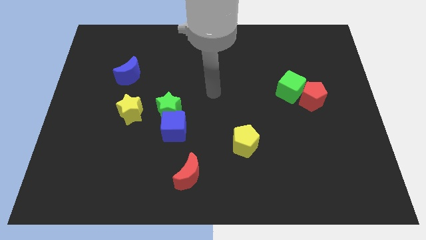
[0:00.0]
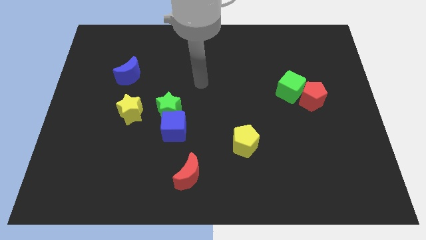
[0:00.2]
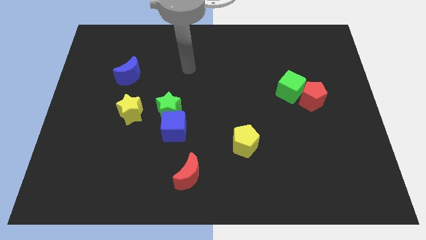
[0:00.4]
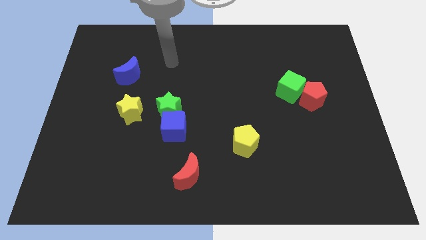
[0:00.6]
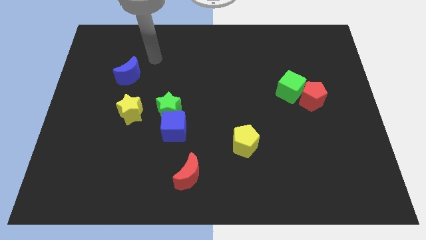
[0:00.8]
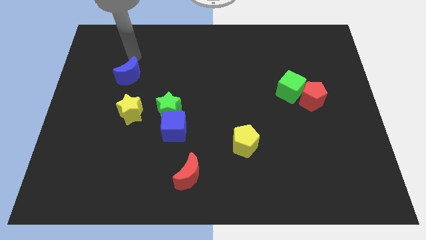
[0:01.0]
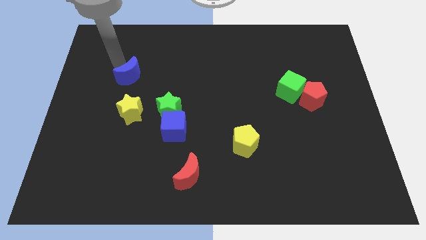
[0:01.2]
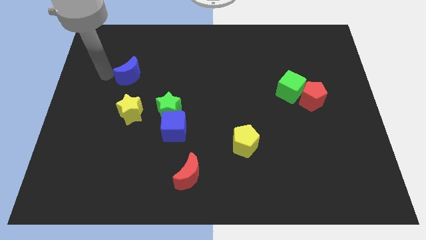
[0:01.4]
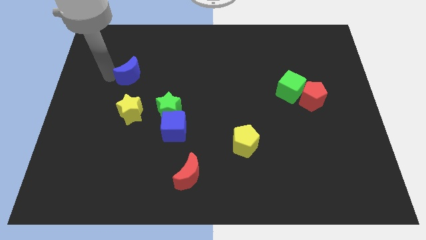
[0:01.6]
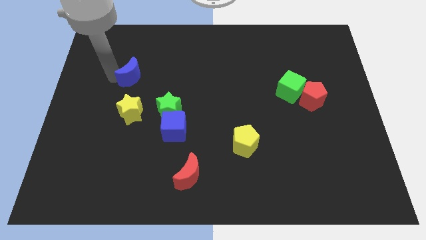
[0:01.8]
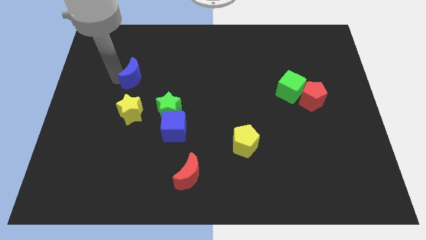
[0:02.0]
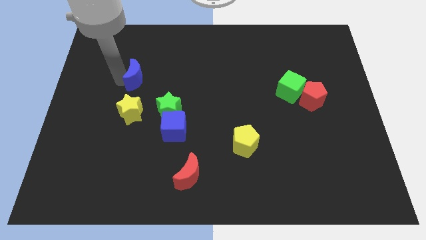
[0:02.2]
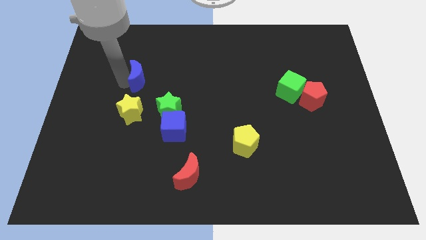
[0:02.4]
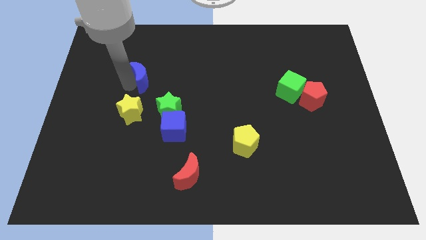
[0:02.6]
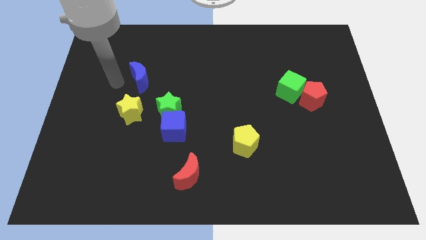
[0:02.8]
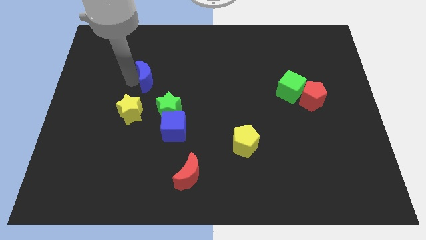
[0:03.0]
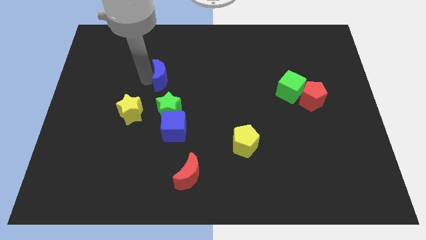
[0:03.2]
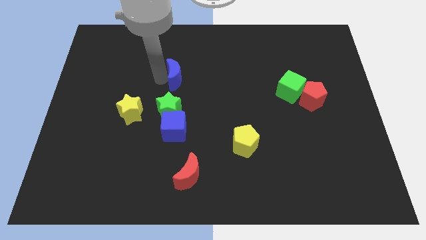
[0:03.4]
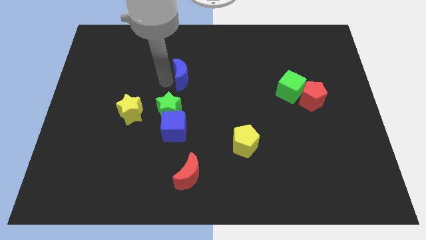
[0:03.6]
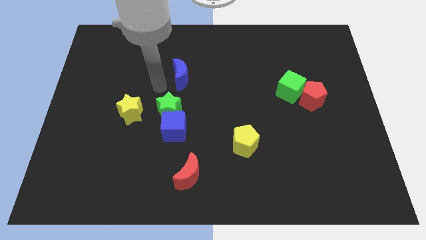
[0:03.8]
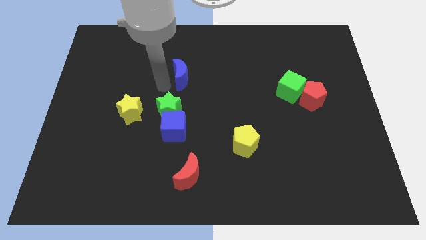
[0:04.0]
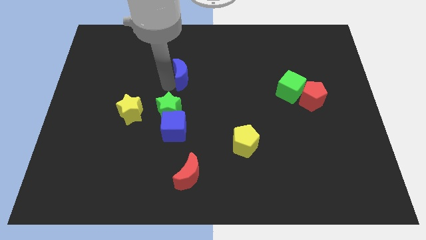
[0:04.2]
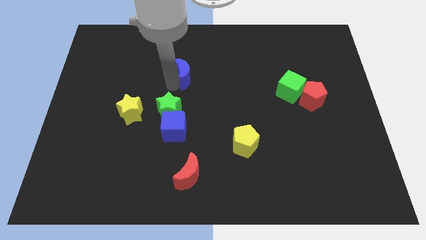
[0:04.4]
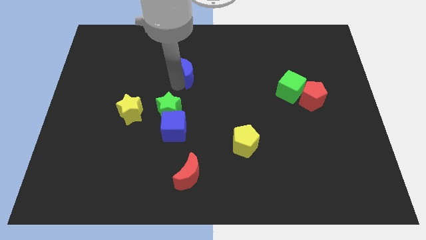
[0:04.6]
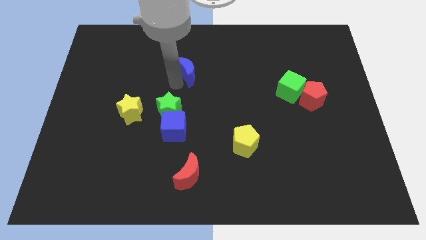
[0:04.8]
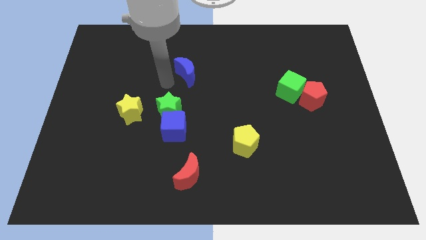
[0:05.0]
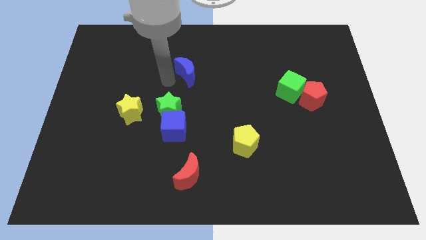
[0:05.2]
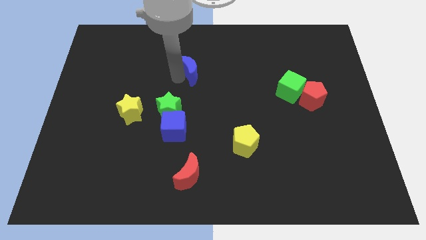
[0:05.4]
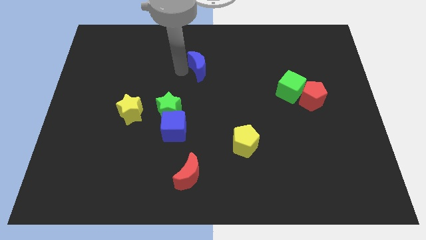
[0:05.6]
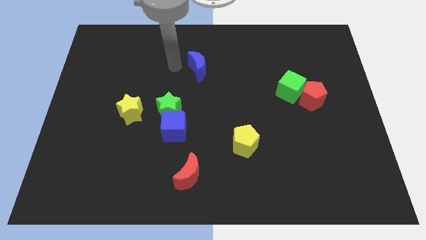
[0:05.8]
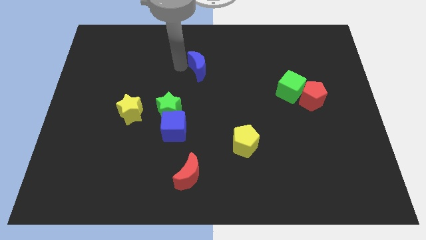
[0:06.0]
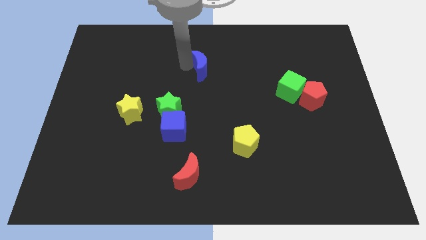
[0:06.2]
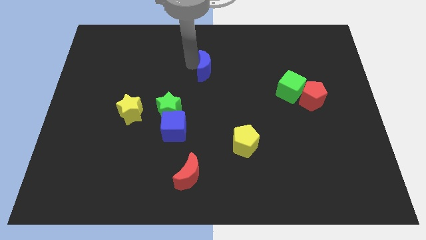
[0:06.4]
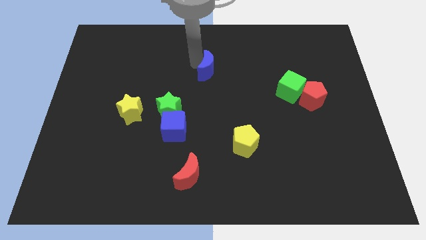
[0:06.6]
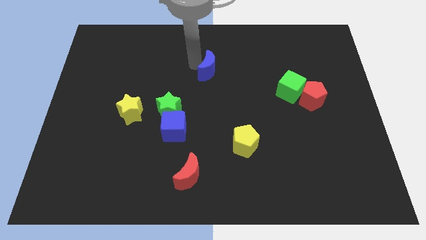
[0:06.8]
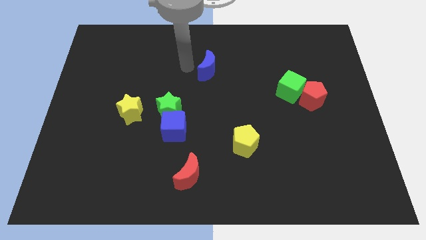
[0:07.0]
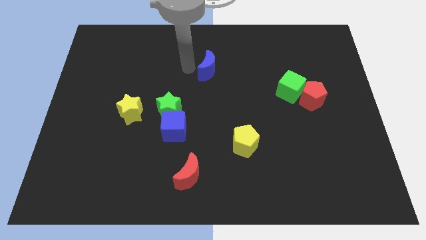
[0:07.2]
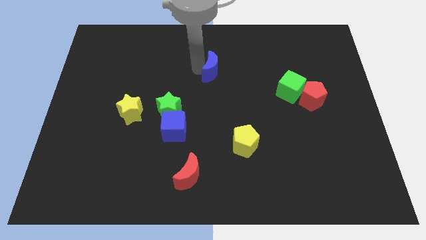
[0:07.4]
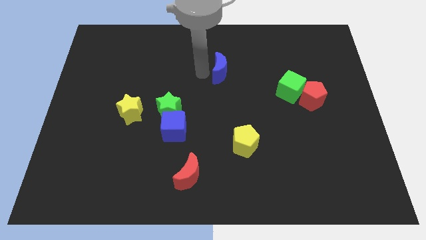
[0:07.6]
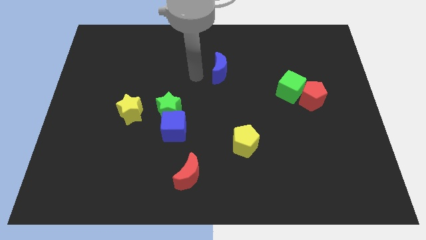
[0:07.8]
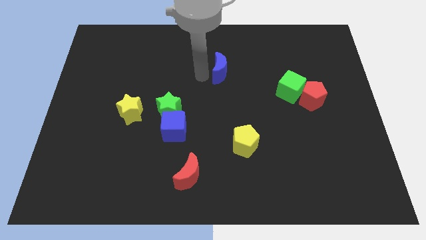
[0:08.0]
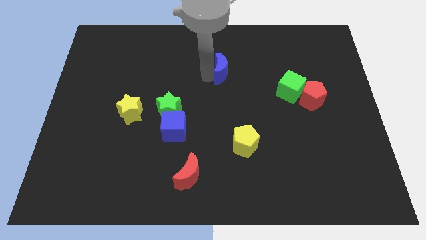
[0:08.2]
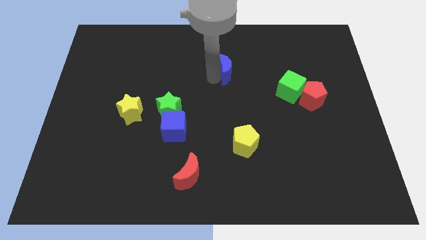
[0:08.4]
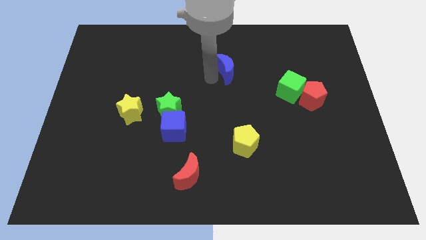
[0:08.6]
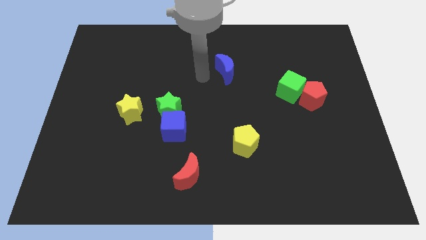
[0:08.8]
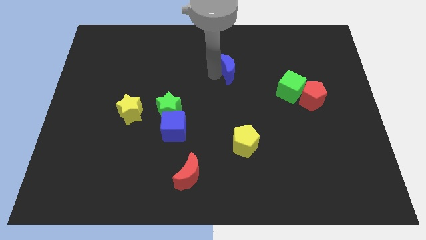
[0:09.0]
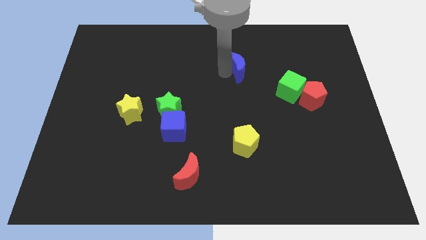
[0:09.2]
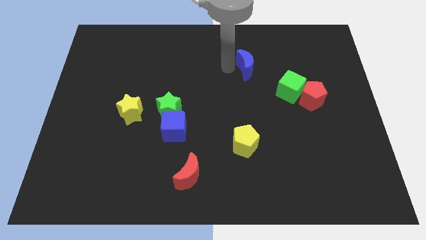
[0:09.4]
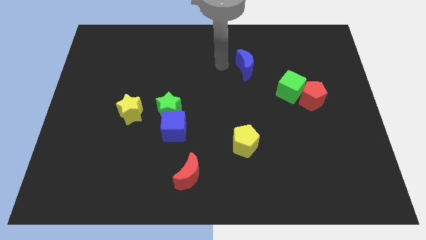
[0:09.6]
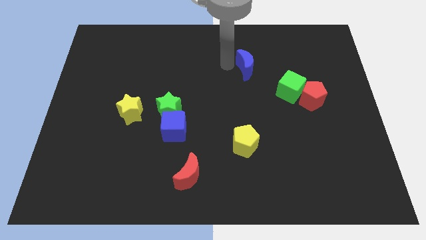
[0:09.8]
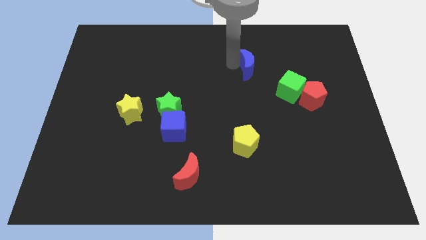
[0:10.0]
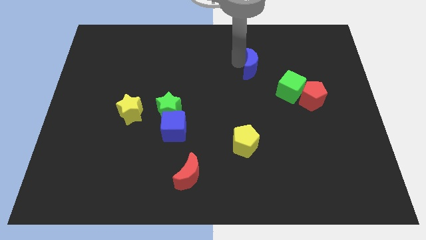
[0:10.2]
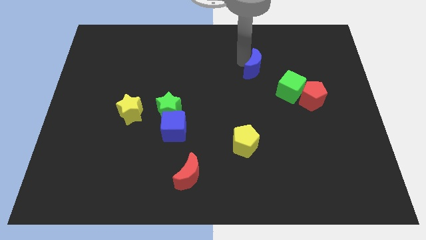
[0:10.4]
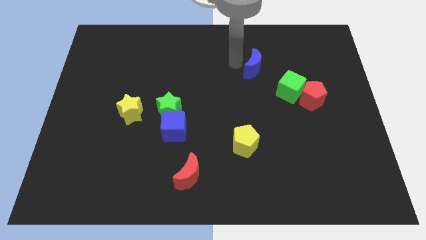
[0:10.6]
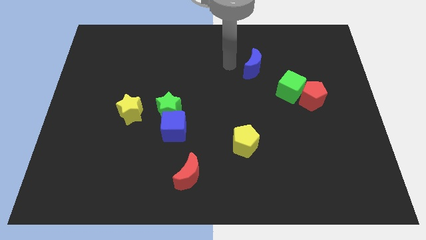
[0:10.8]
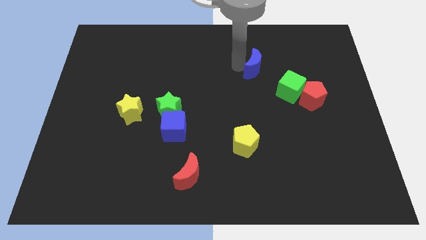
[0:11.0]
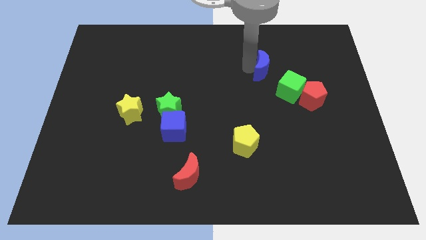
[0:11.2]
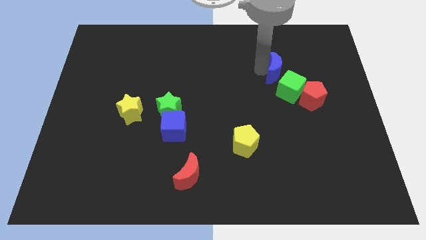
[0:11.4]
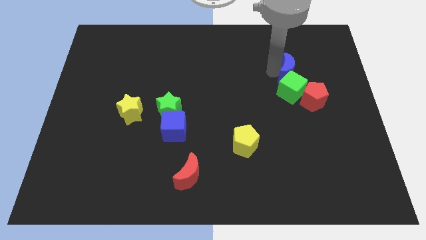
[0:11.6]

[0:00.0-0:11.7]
slide the blue moon diagonally up and to the right of the green cube

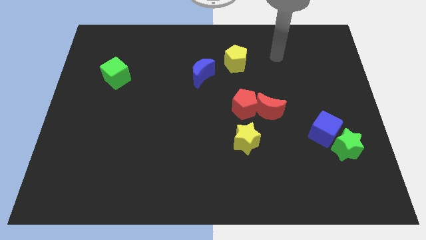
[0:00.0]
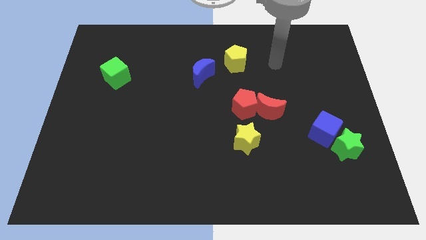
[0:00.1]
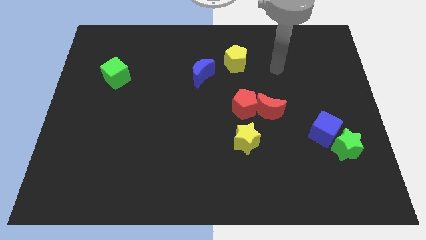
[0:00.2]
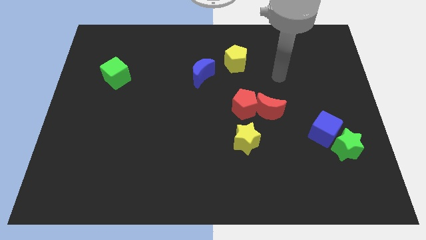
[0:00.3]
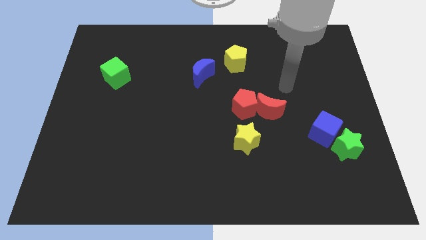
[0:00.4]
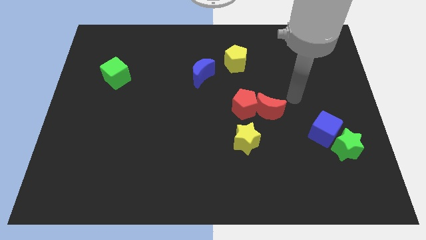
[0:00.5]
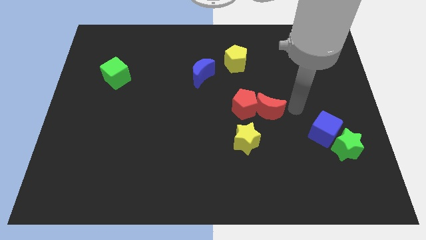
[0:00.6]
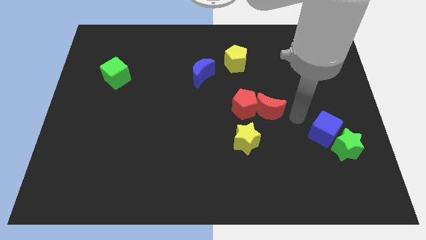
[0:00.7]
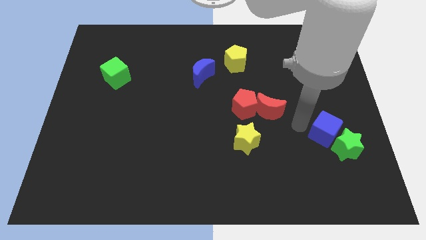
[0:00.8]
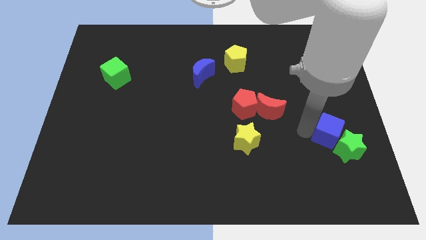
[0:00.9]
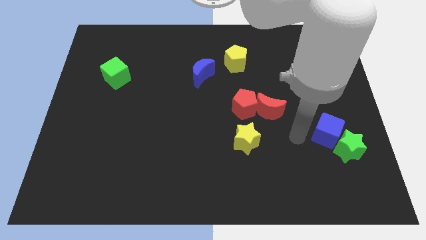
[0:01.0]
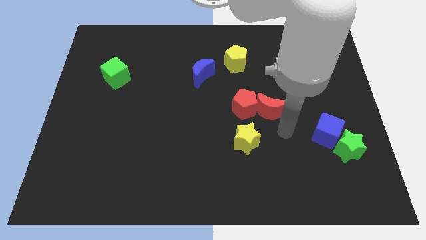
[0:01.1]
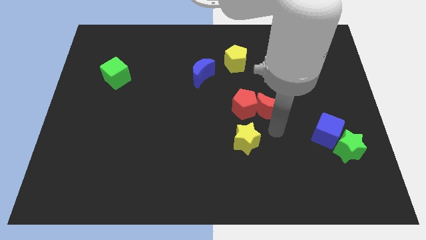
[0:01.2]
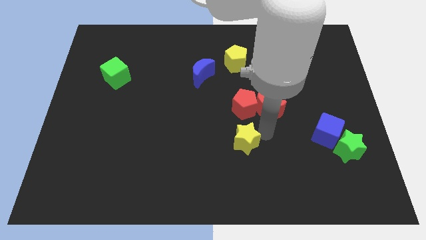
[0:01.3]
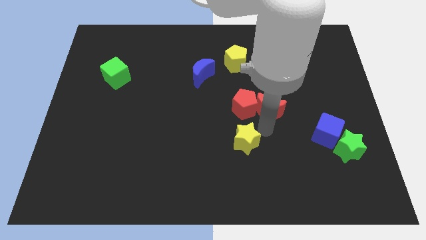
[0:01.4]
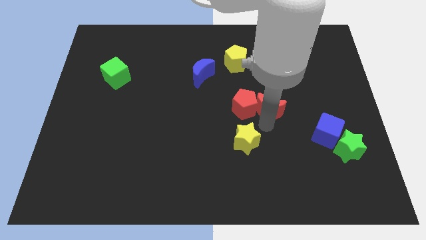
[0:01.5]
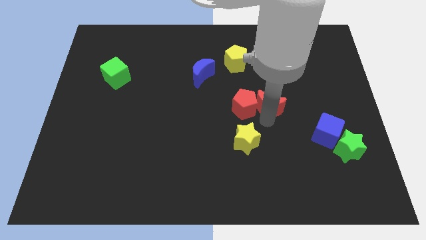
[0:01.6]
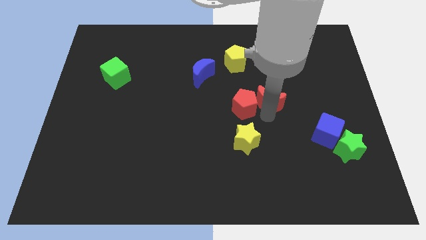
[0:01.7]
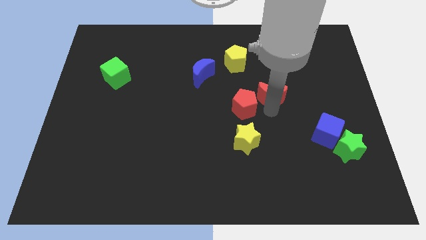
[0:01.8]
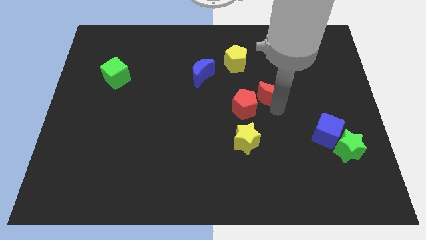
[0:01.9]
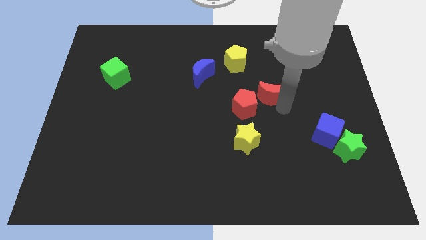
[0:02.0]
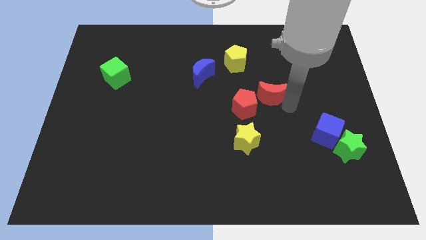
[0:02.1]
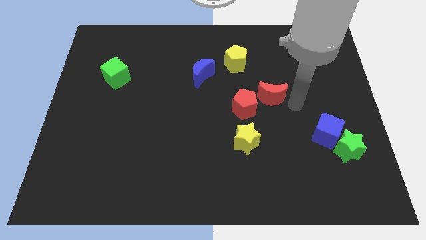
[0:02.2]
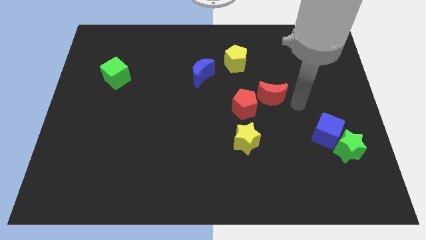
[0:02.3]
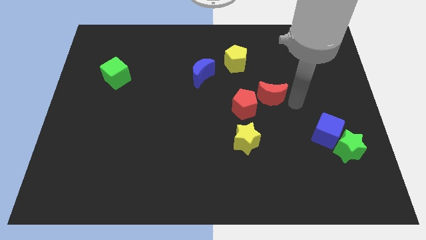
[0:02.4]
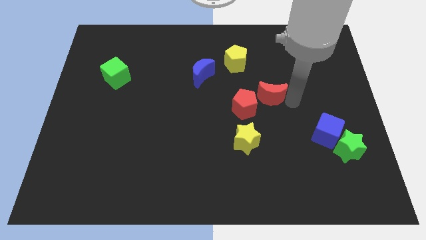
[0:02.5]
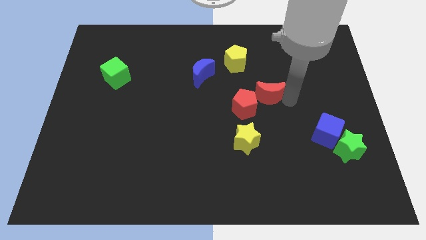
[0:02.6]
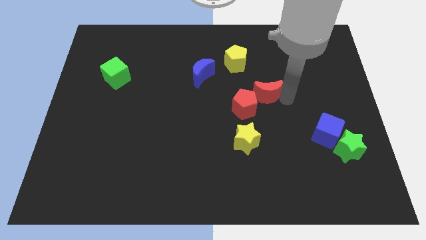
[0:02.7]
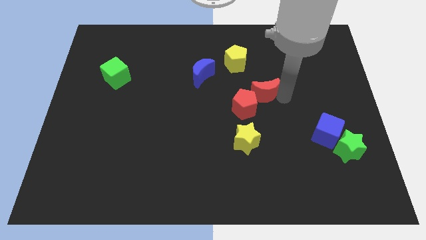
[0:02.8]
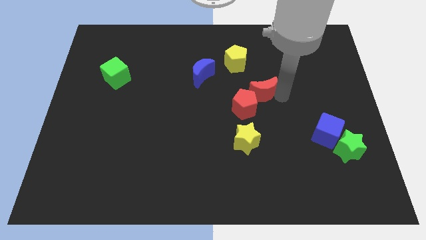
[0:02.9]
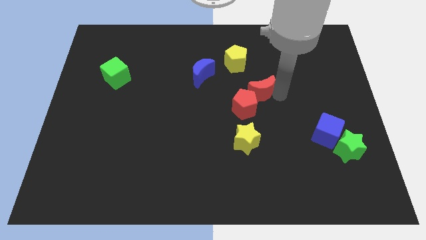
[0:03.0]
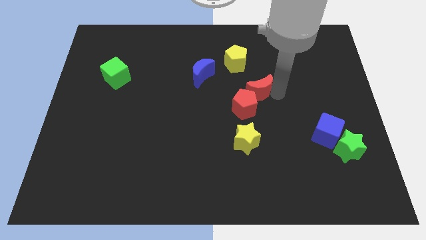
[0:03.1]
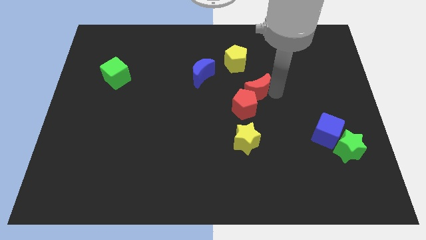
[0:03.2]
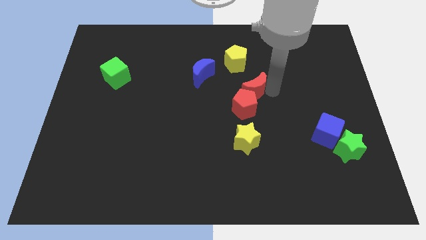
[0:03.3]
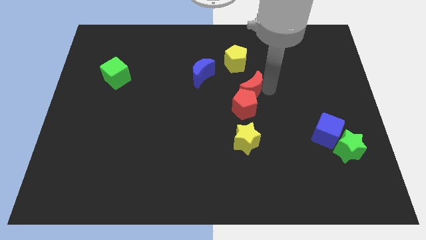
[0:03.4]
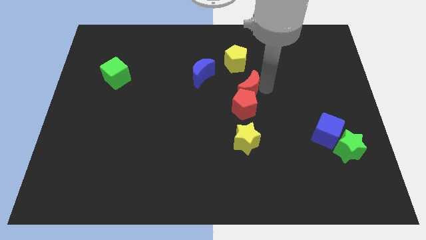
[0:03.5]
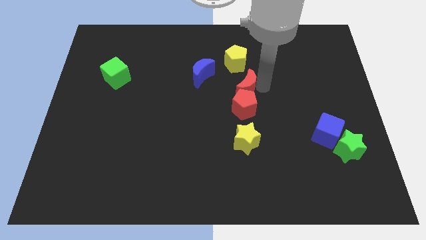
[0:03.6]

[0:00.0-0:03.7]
push the red moon to the top left of the red pentagon
